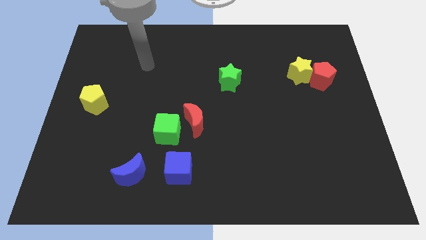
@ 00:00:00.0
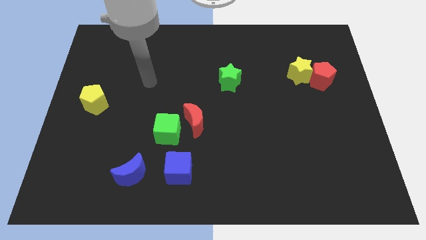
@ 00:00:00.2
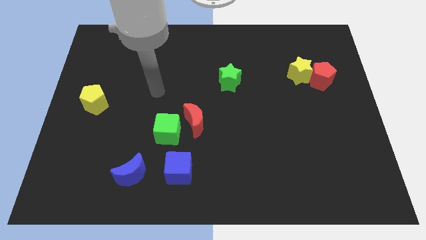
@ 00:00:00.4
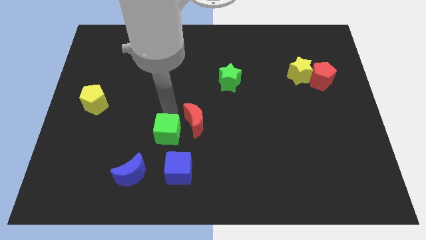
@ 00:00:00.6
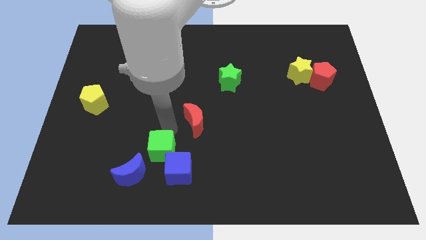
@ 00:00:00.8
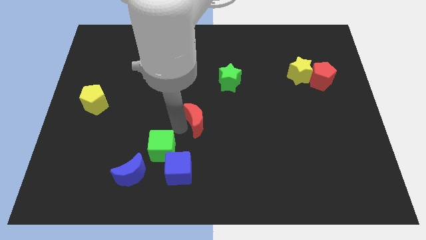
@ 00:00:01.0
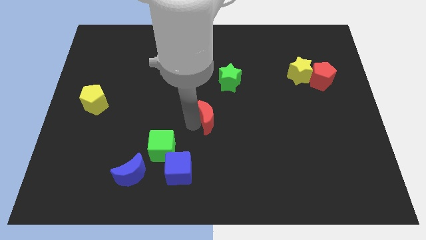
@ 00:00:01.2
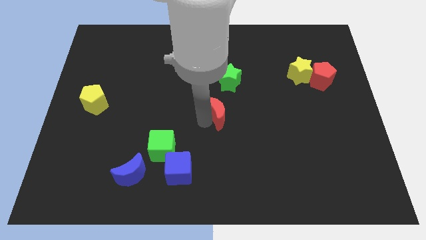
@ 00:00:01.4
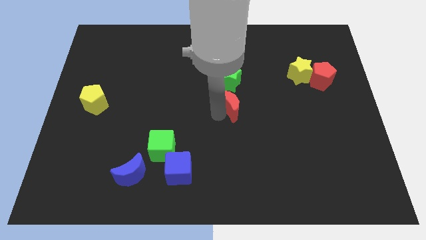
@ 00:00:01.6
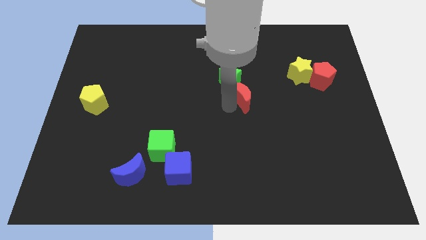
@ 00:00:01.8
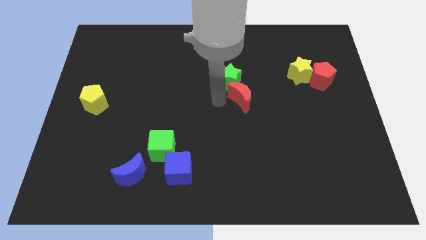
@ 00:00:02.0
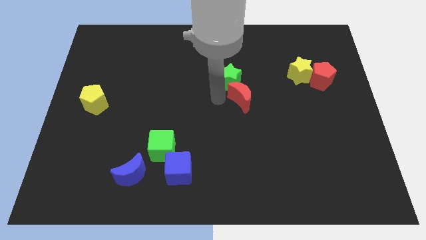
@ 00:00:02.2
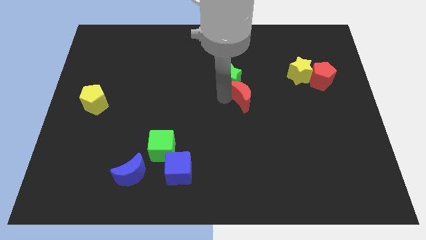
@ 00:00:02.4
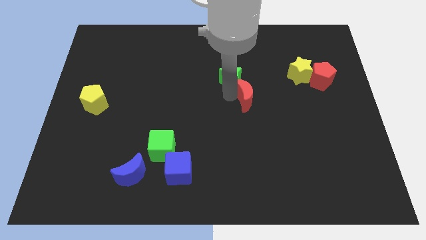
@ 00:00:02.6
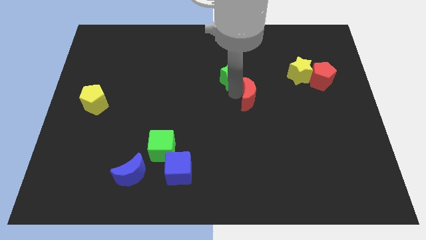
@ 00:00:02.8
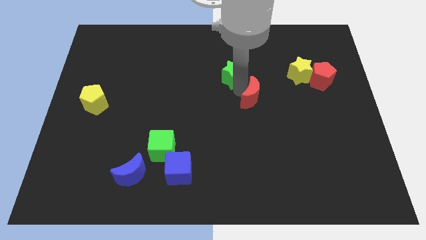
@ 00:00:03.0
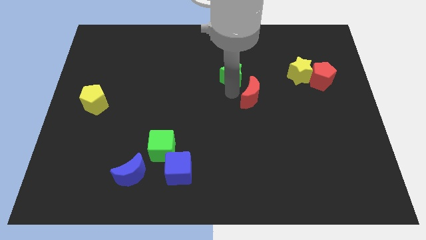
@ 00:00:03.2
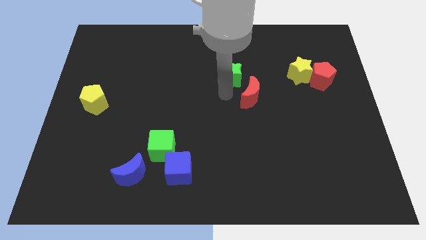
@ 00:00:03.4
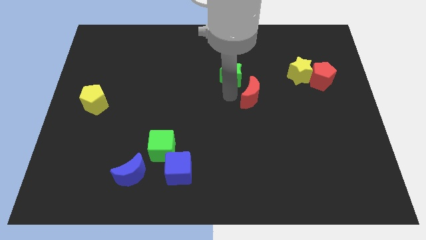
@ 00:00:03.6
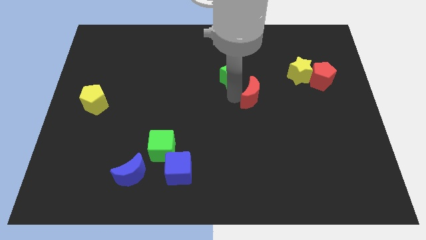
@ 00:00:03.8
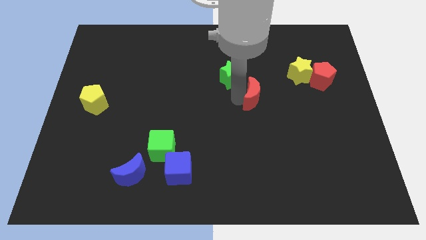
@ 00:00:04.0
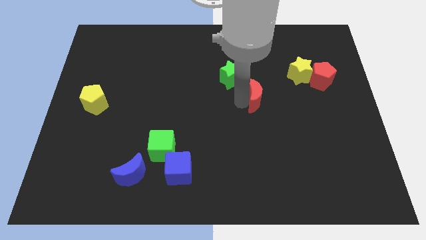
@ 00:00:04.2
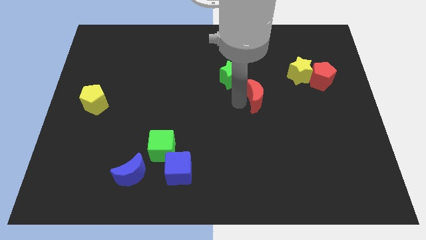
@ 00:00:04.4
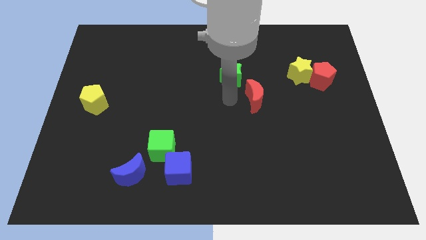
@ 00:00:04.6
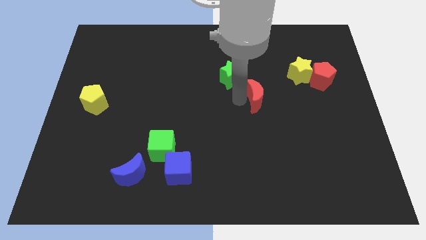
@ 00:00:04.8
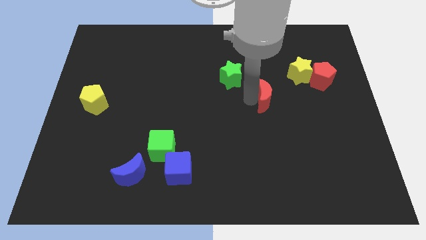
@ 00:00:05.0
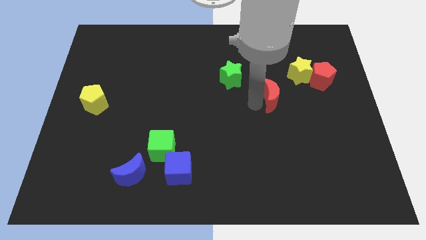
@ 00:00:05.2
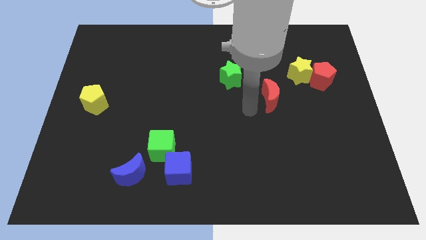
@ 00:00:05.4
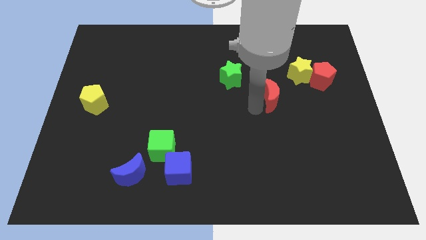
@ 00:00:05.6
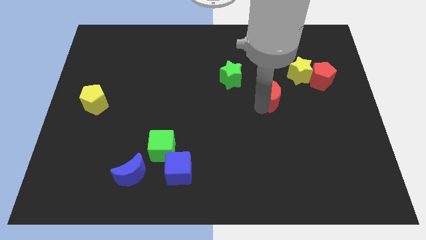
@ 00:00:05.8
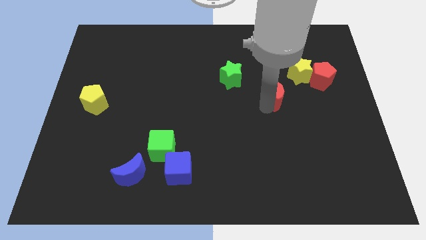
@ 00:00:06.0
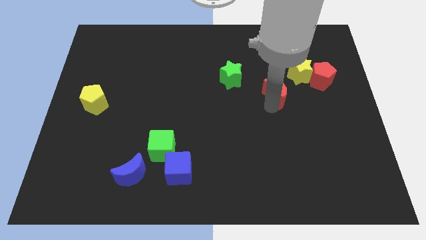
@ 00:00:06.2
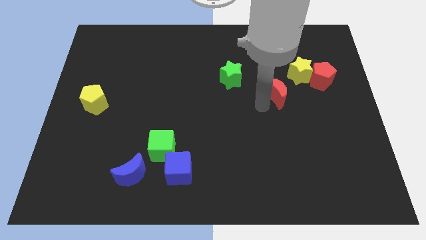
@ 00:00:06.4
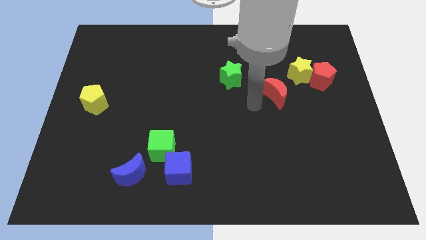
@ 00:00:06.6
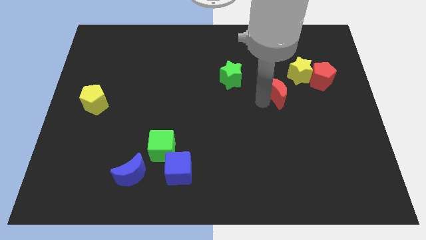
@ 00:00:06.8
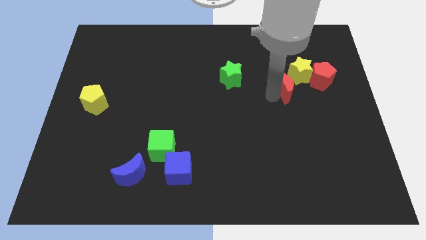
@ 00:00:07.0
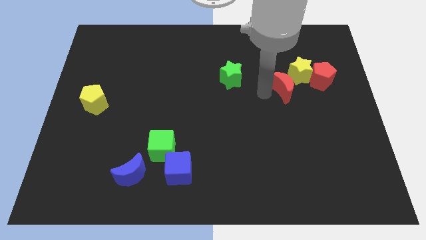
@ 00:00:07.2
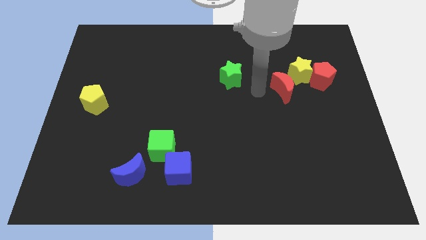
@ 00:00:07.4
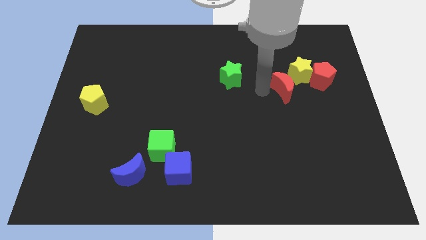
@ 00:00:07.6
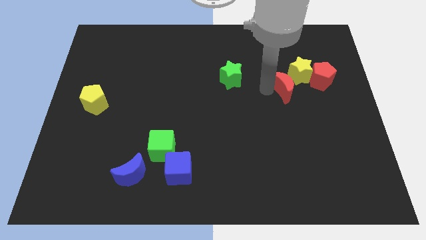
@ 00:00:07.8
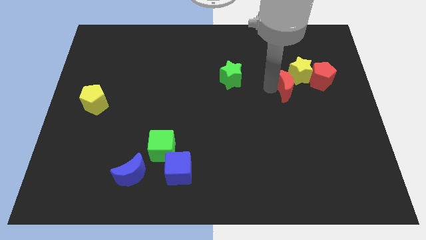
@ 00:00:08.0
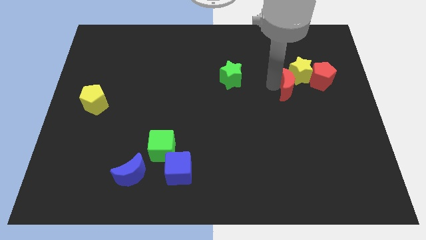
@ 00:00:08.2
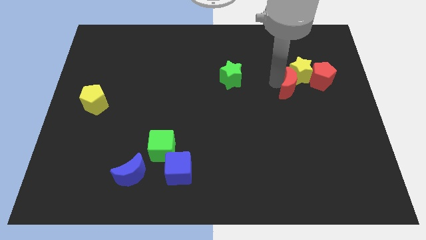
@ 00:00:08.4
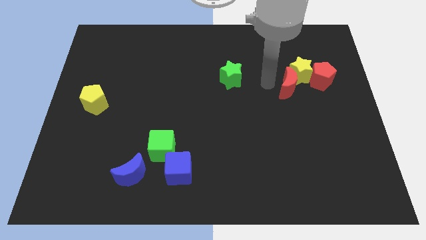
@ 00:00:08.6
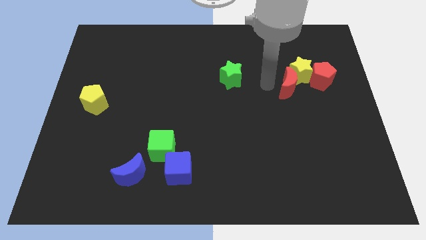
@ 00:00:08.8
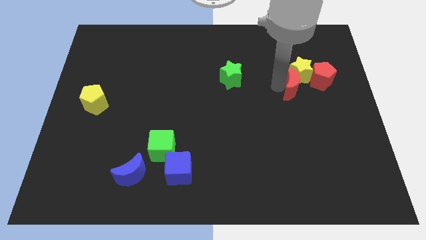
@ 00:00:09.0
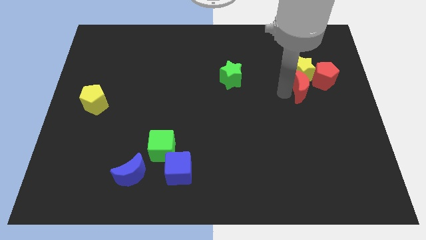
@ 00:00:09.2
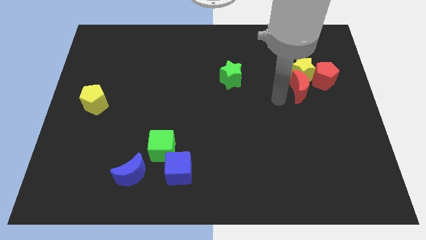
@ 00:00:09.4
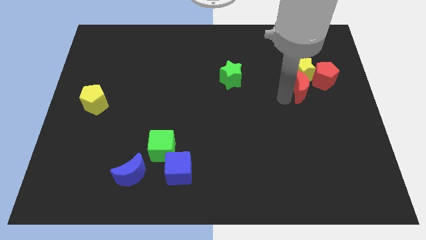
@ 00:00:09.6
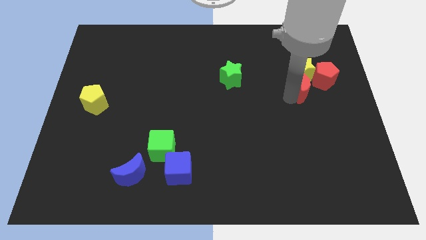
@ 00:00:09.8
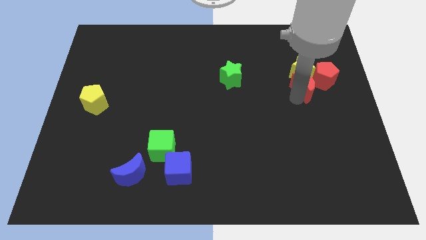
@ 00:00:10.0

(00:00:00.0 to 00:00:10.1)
push the red moon next to the red pentagon

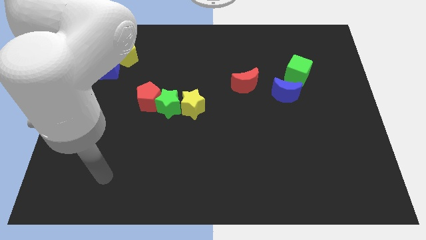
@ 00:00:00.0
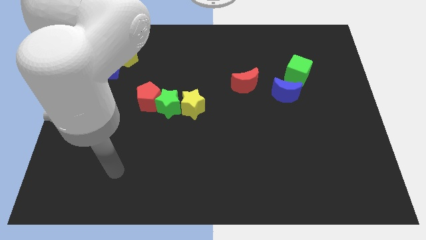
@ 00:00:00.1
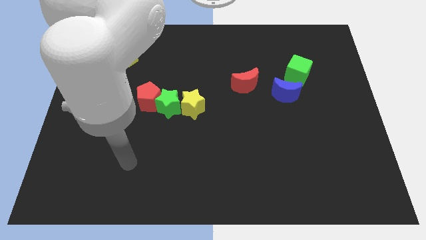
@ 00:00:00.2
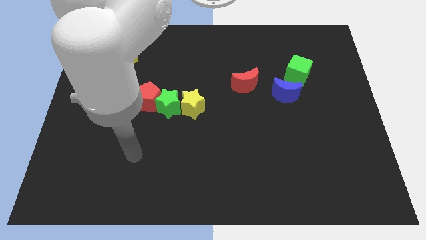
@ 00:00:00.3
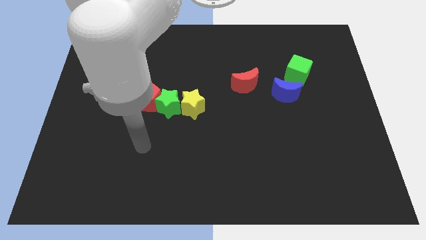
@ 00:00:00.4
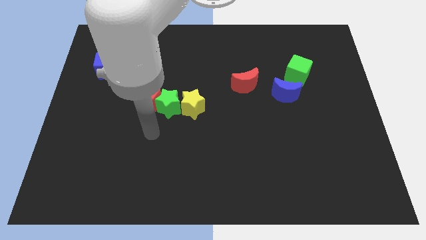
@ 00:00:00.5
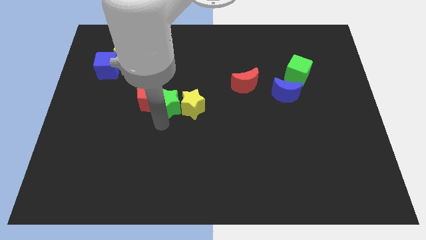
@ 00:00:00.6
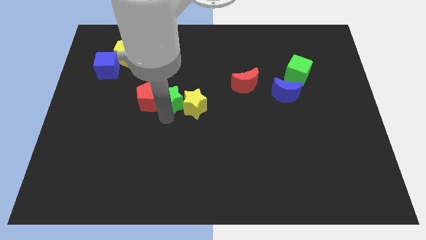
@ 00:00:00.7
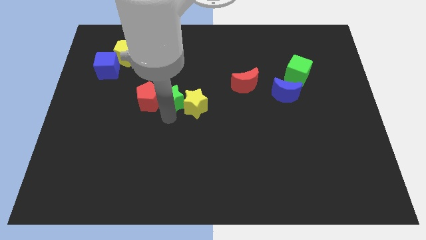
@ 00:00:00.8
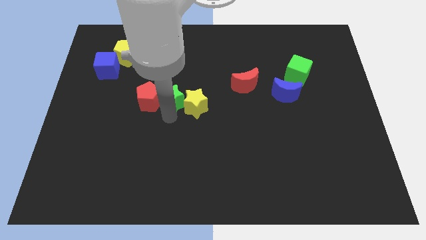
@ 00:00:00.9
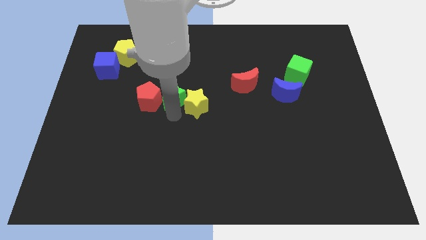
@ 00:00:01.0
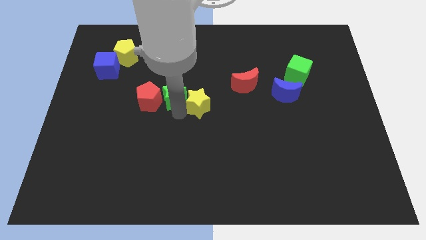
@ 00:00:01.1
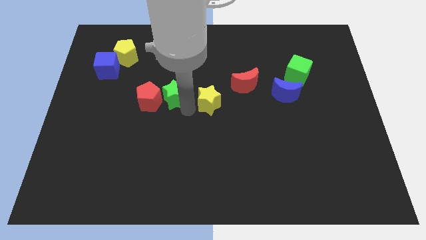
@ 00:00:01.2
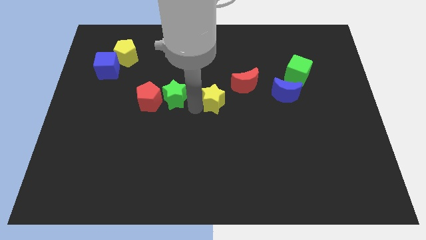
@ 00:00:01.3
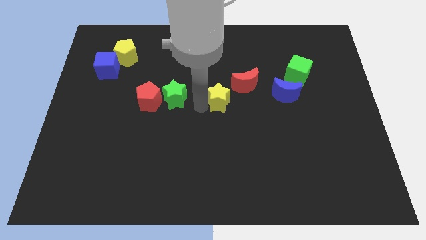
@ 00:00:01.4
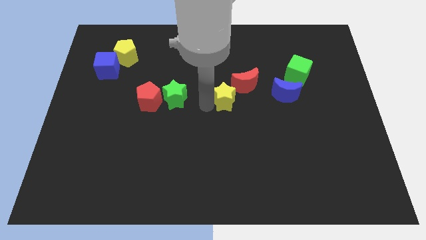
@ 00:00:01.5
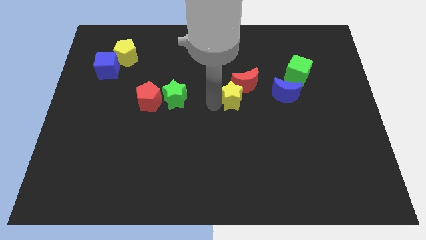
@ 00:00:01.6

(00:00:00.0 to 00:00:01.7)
move the yellow star to the red moon

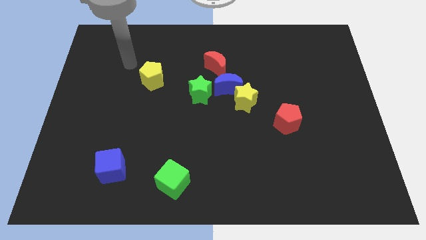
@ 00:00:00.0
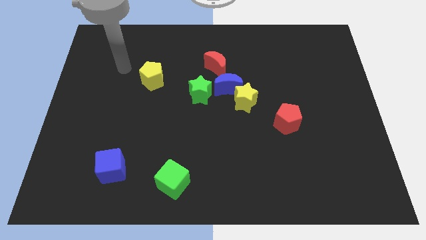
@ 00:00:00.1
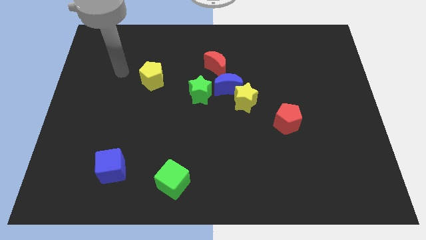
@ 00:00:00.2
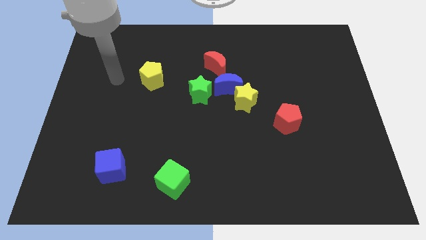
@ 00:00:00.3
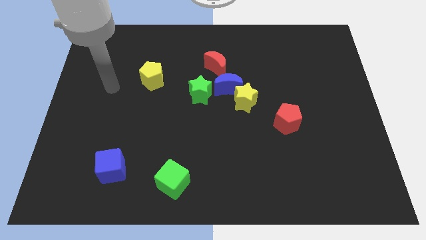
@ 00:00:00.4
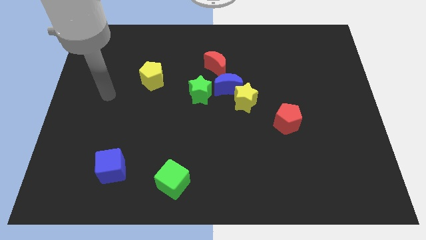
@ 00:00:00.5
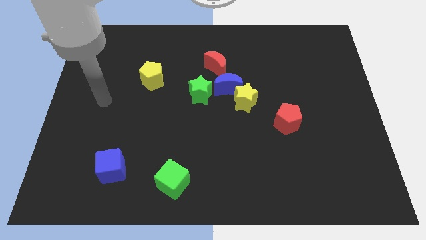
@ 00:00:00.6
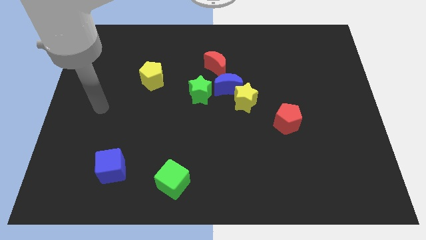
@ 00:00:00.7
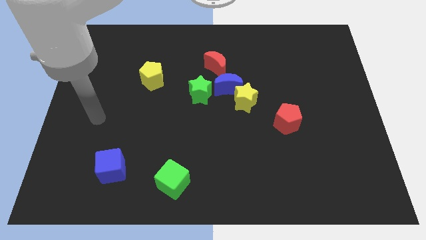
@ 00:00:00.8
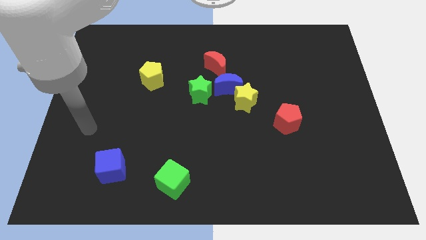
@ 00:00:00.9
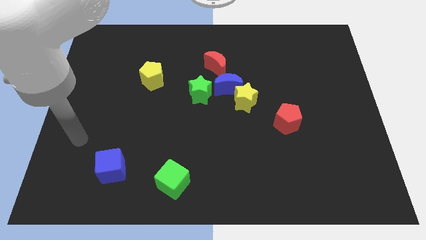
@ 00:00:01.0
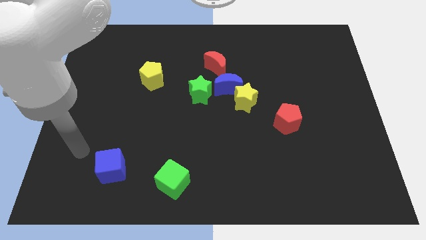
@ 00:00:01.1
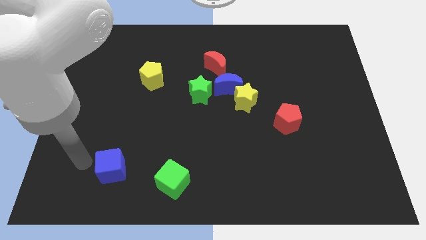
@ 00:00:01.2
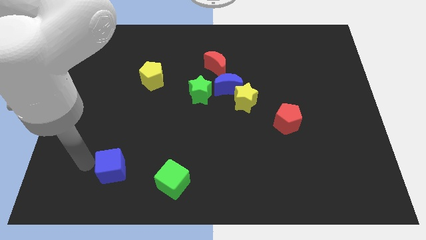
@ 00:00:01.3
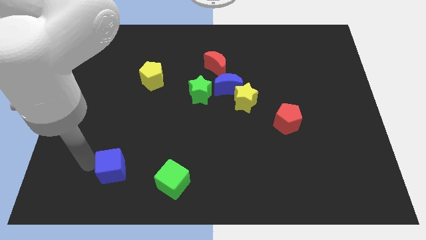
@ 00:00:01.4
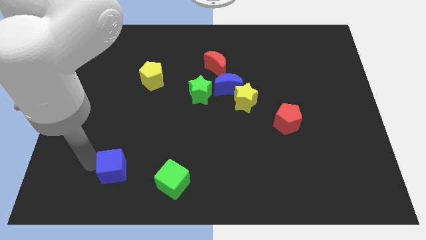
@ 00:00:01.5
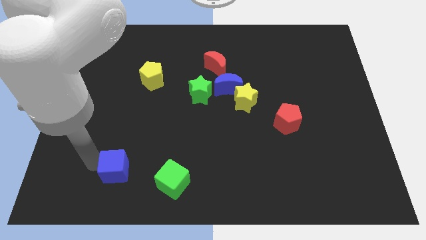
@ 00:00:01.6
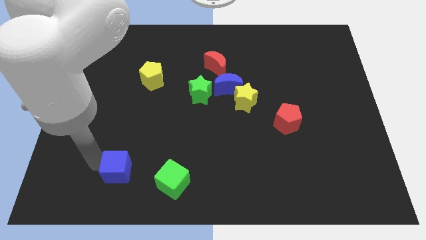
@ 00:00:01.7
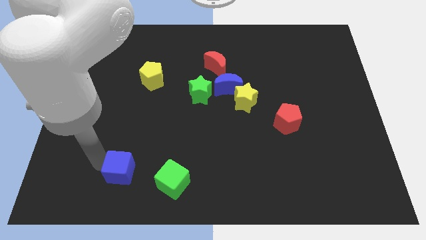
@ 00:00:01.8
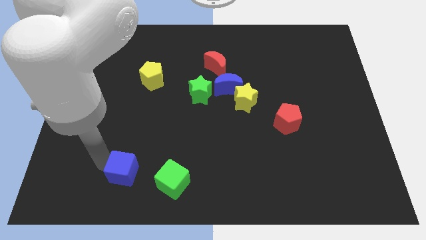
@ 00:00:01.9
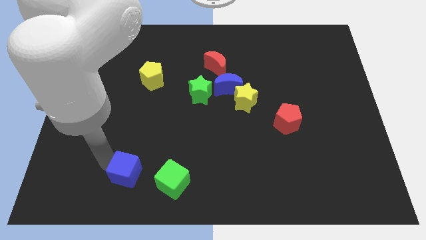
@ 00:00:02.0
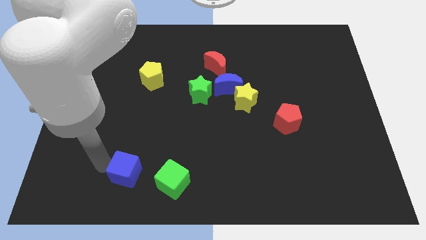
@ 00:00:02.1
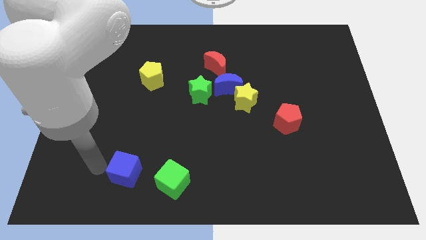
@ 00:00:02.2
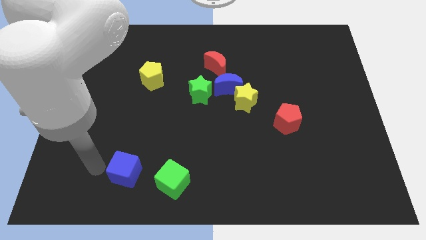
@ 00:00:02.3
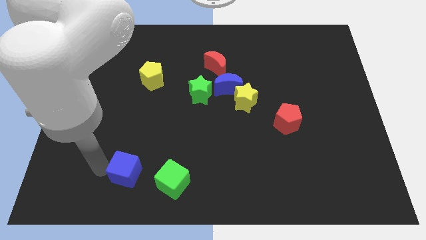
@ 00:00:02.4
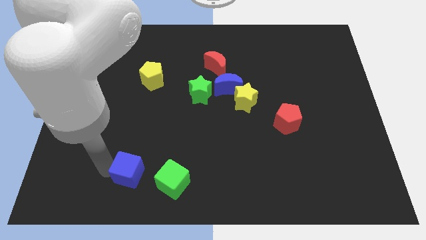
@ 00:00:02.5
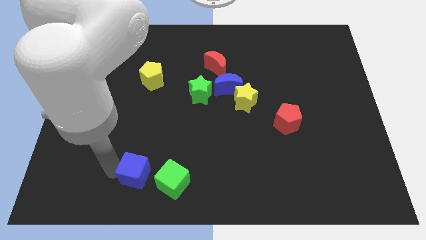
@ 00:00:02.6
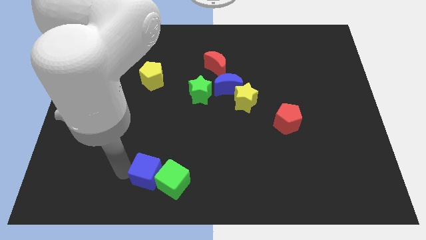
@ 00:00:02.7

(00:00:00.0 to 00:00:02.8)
push the blue cube to the green cube
